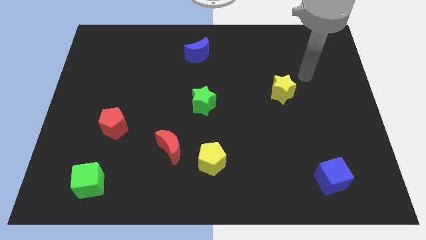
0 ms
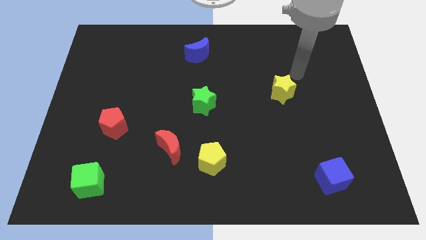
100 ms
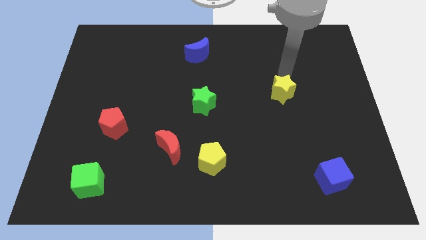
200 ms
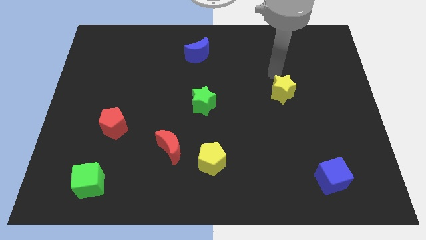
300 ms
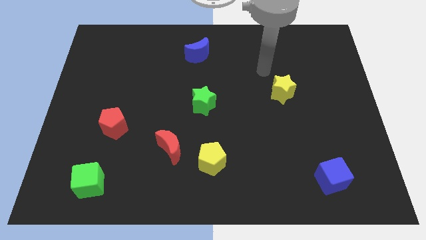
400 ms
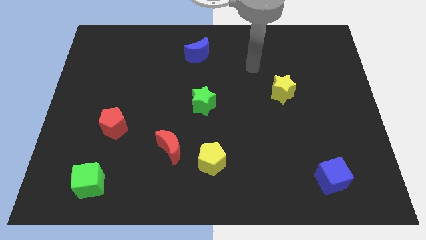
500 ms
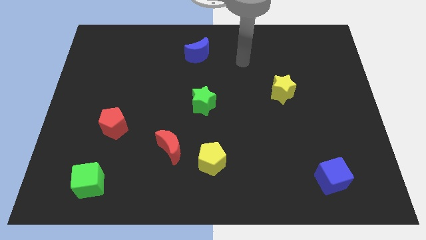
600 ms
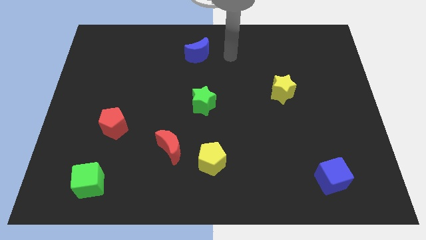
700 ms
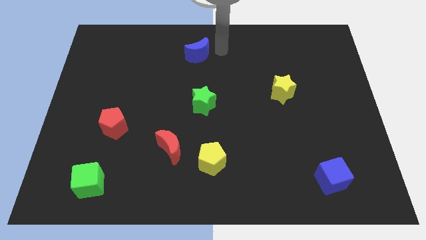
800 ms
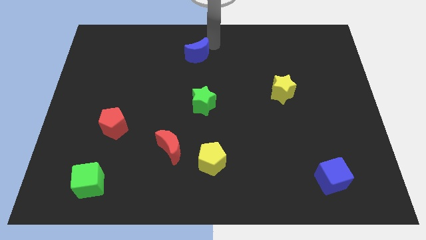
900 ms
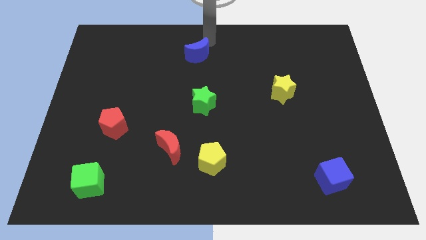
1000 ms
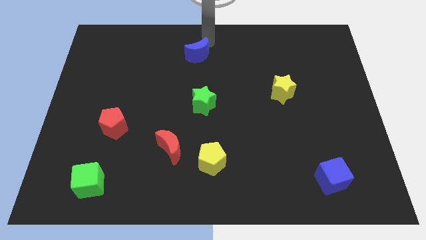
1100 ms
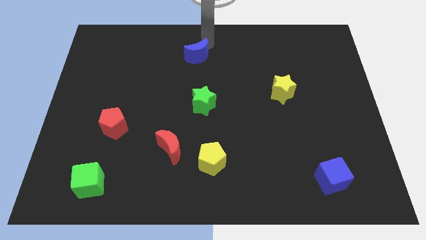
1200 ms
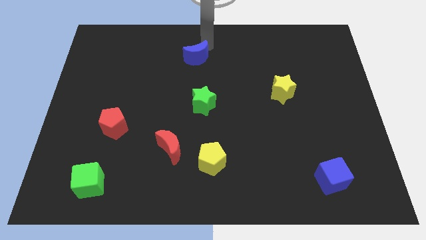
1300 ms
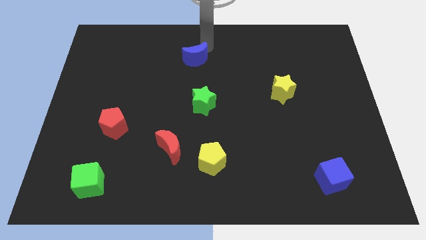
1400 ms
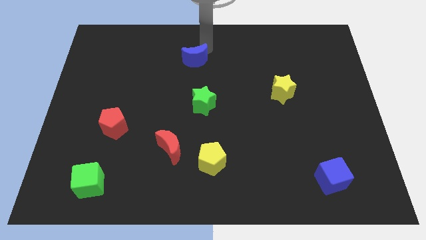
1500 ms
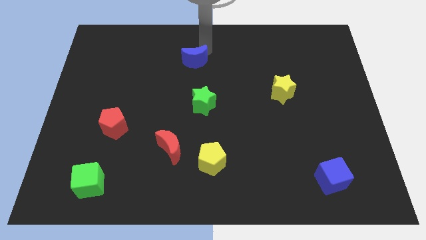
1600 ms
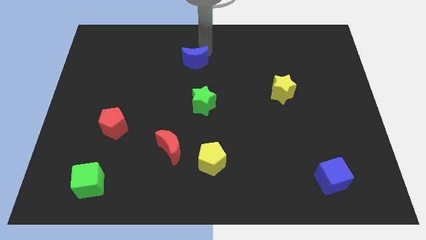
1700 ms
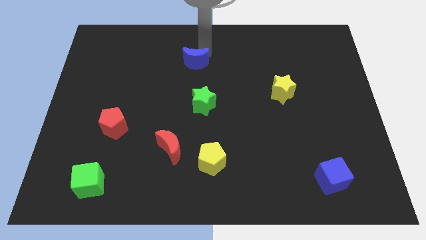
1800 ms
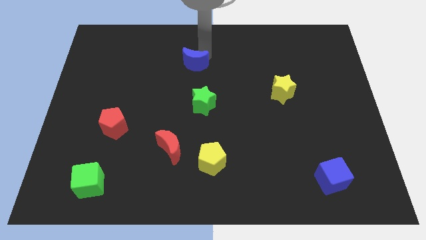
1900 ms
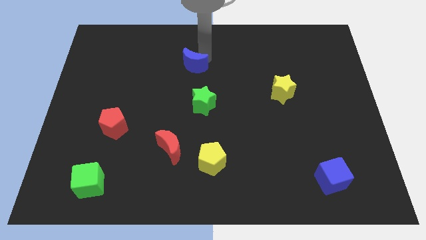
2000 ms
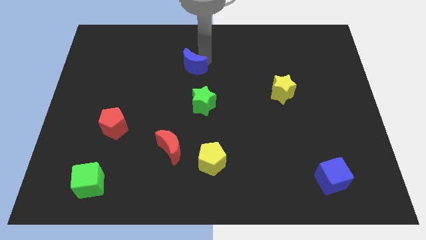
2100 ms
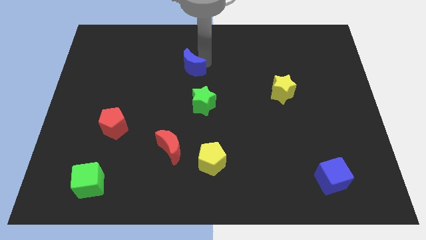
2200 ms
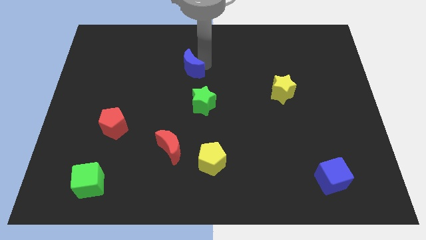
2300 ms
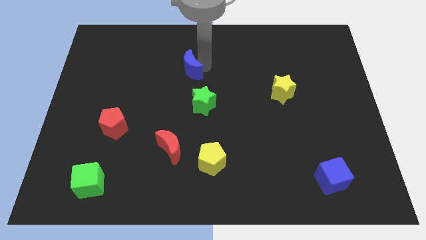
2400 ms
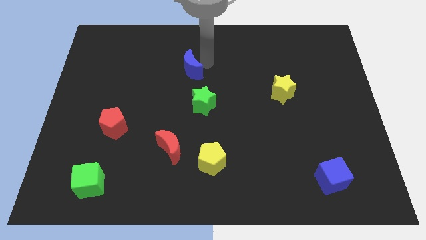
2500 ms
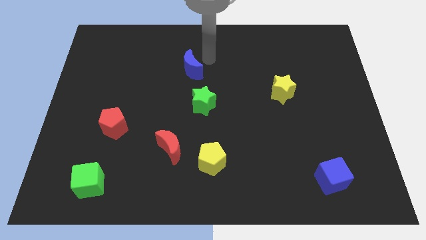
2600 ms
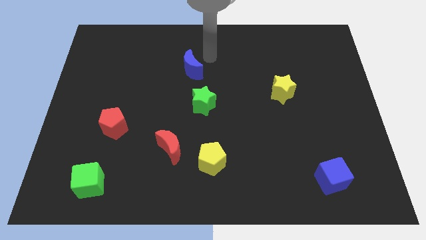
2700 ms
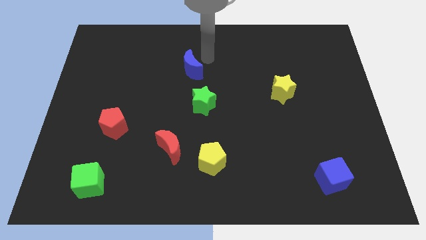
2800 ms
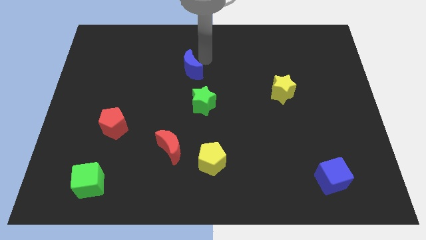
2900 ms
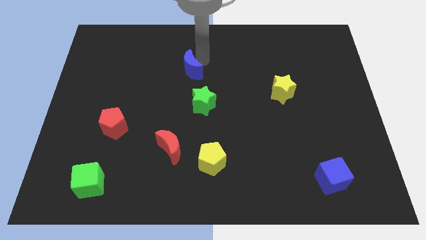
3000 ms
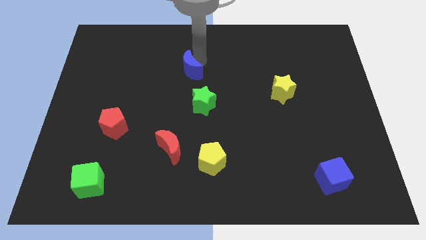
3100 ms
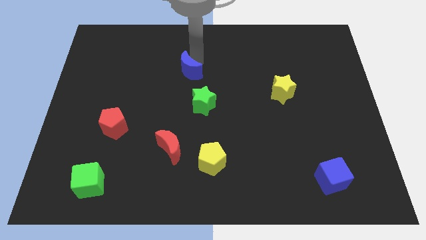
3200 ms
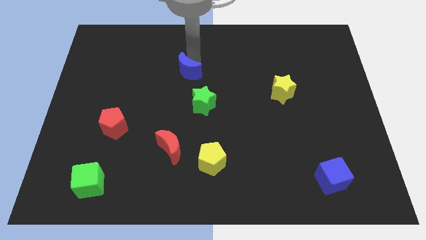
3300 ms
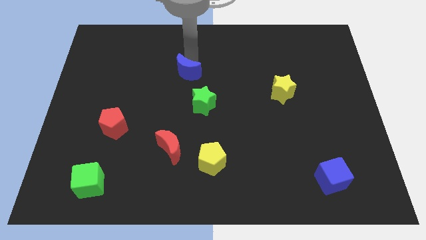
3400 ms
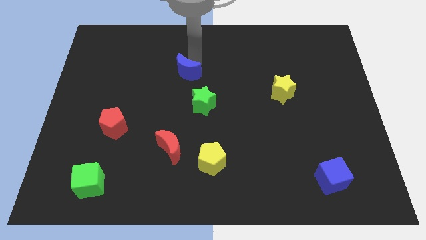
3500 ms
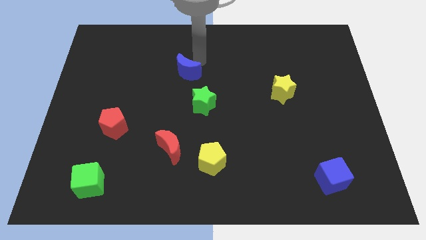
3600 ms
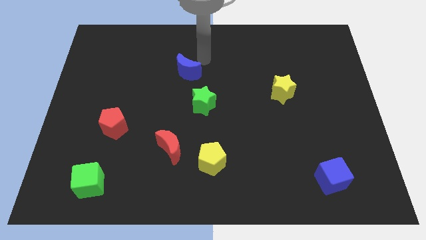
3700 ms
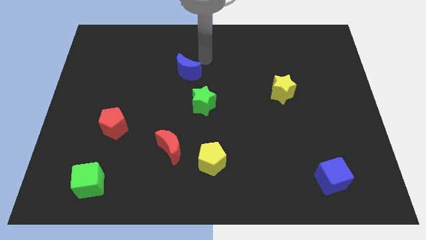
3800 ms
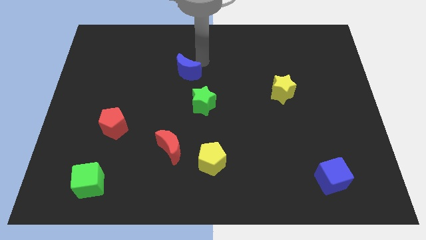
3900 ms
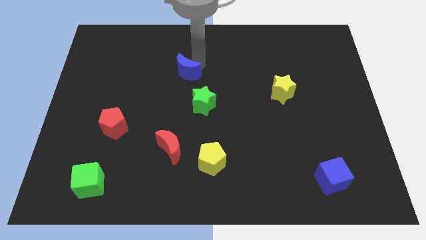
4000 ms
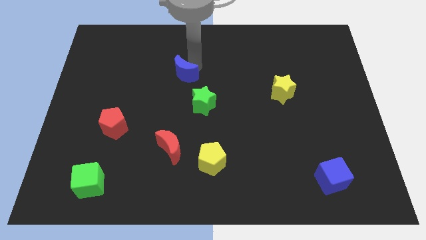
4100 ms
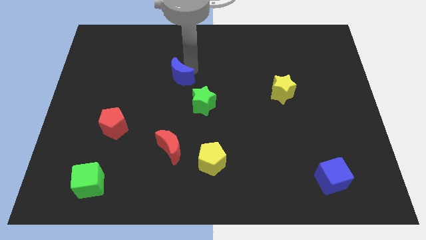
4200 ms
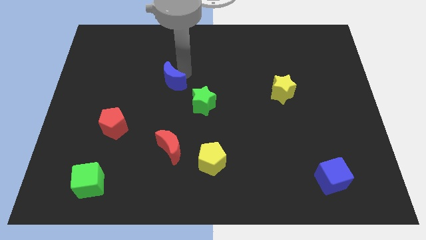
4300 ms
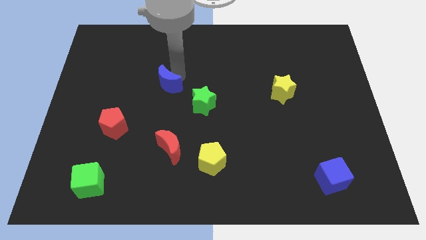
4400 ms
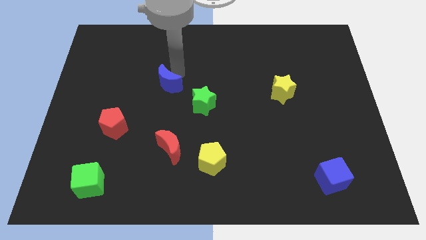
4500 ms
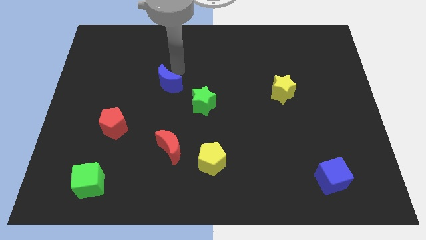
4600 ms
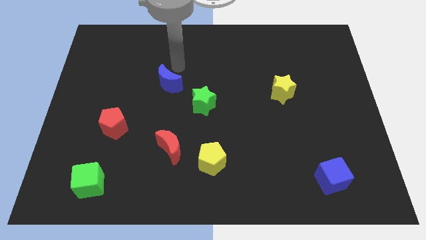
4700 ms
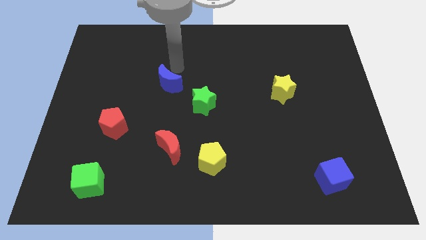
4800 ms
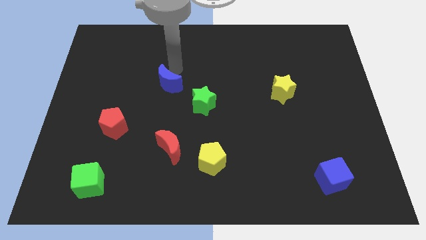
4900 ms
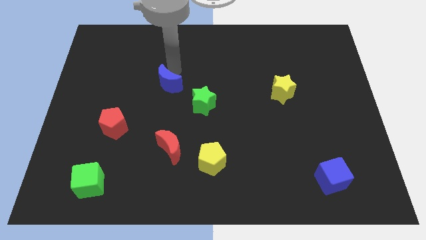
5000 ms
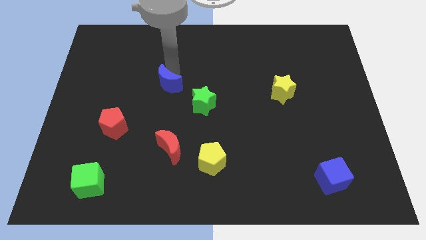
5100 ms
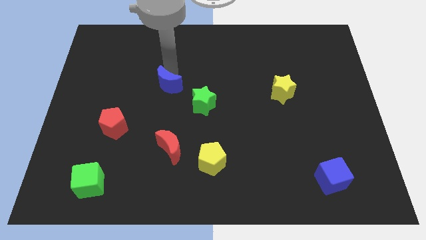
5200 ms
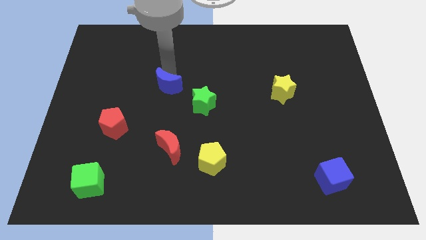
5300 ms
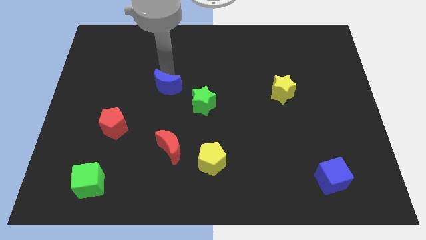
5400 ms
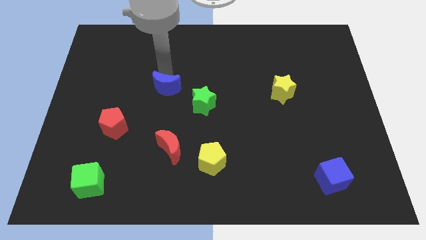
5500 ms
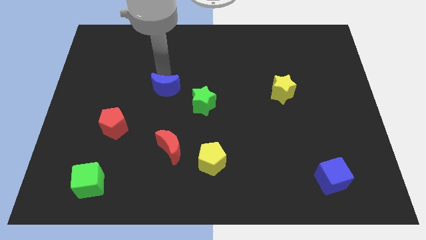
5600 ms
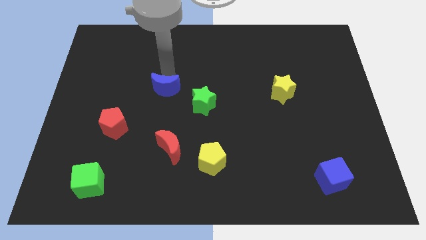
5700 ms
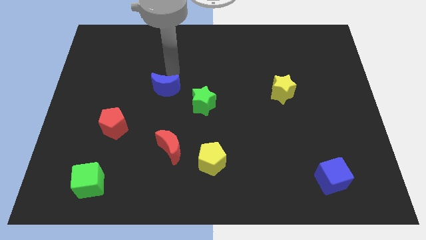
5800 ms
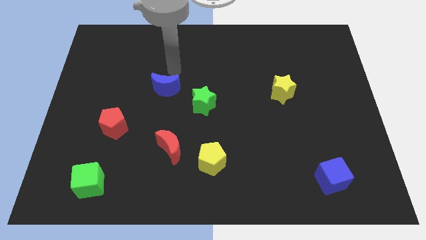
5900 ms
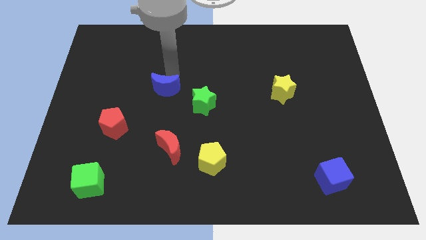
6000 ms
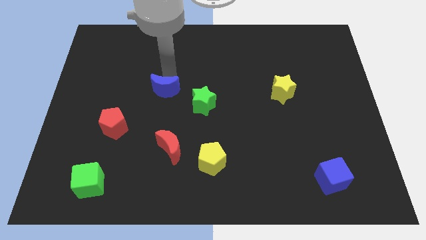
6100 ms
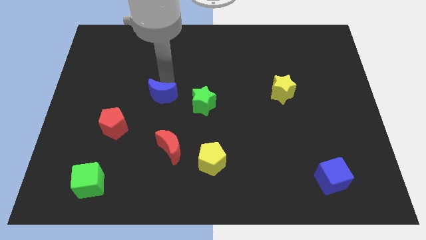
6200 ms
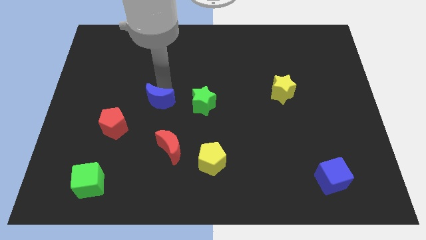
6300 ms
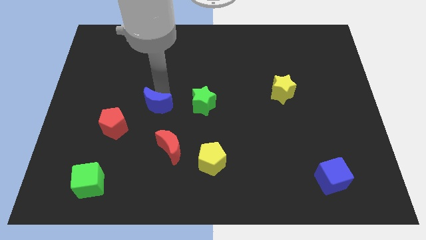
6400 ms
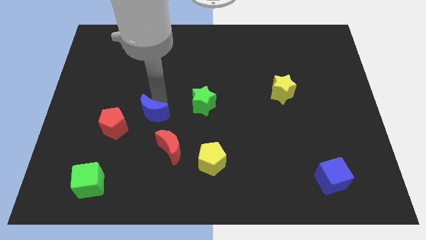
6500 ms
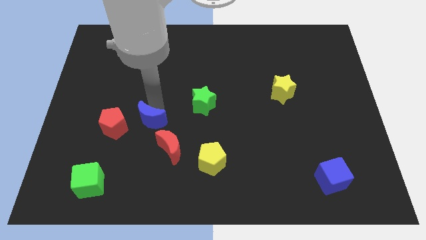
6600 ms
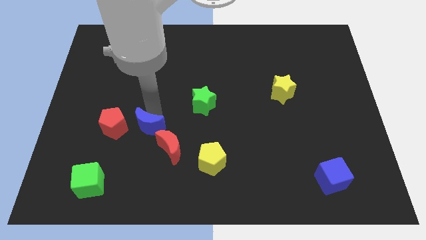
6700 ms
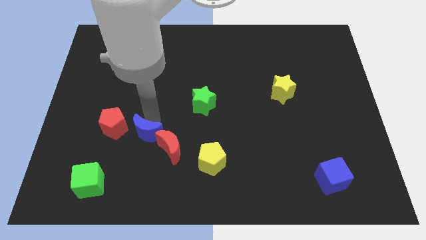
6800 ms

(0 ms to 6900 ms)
move the blue moon to the bottom right side of the red pentagon

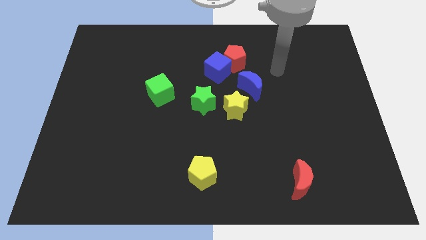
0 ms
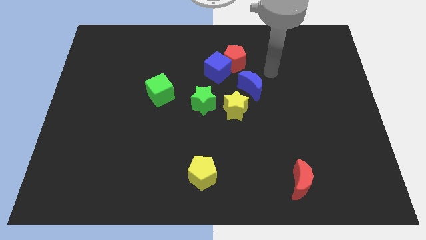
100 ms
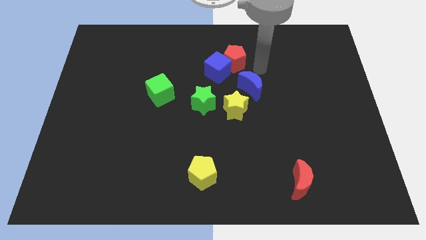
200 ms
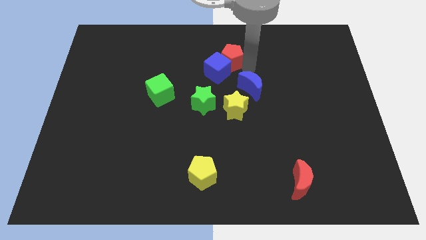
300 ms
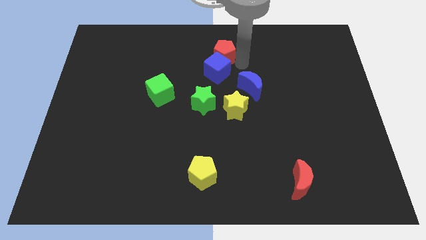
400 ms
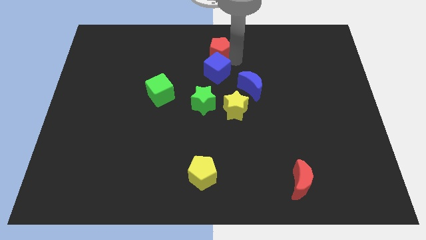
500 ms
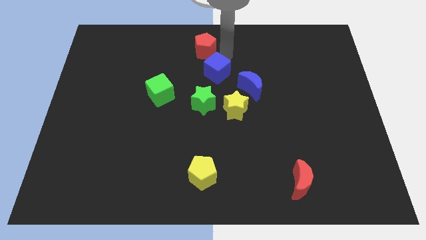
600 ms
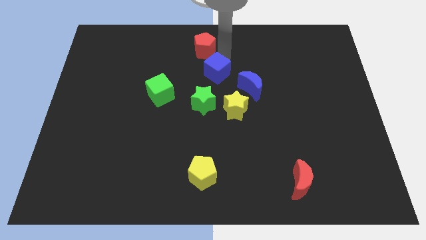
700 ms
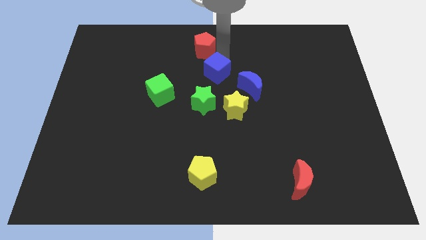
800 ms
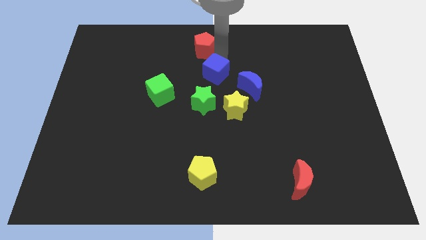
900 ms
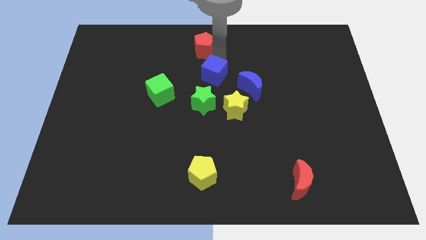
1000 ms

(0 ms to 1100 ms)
move the blue cube to the left of the blue moon
